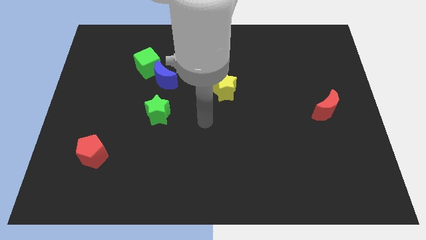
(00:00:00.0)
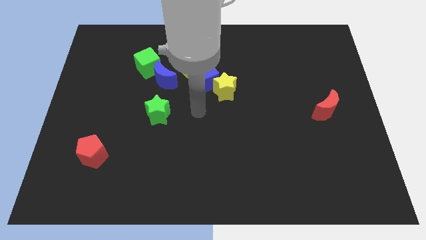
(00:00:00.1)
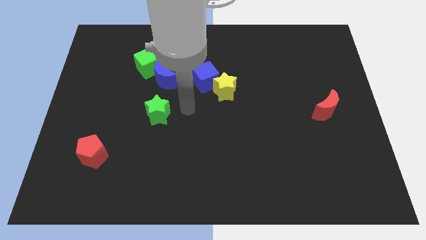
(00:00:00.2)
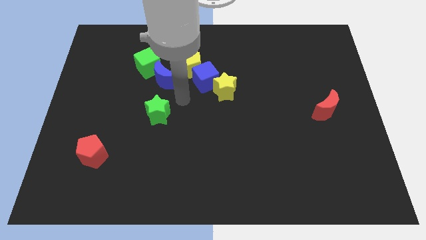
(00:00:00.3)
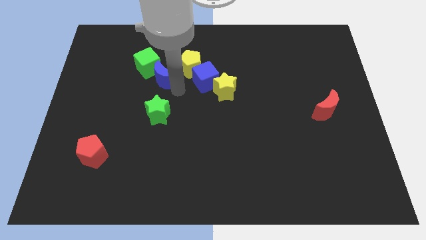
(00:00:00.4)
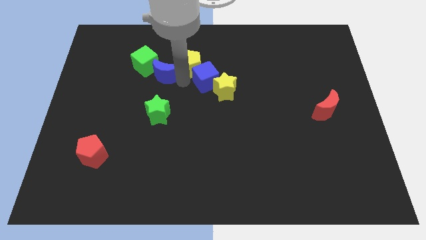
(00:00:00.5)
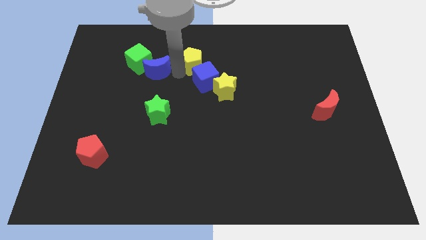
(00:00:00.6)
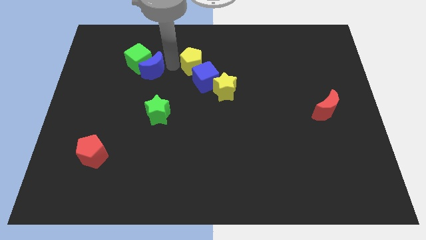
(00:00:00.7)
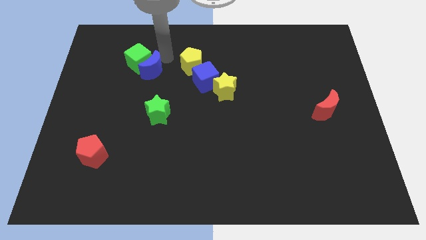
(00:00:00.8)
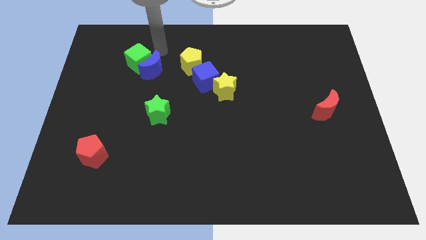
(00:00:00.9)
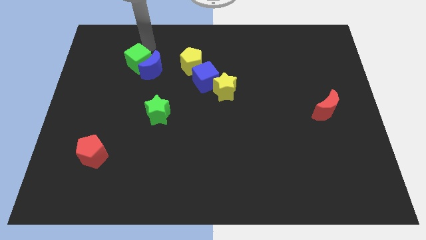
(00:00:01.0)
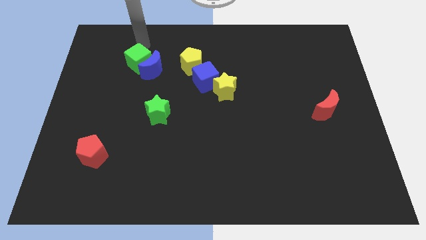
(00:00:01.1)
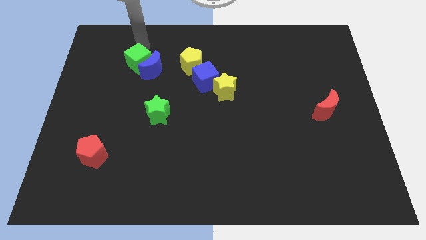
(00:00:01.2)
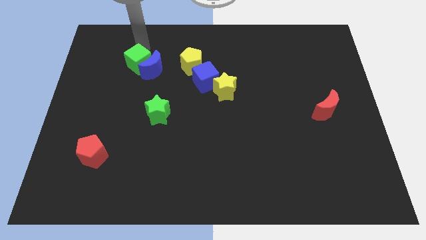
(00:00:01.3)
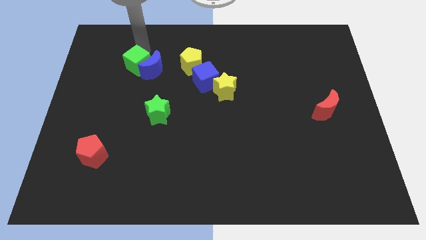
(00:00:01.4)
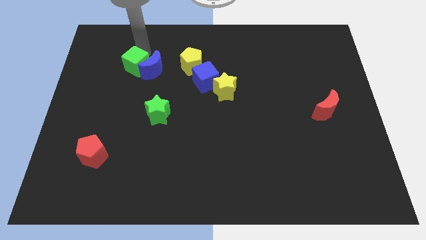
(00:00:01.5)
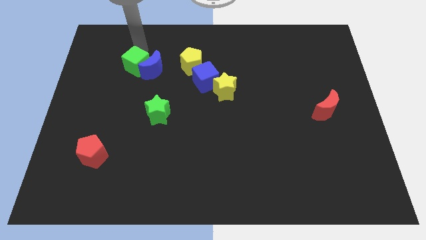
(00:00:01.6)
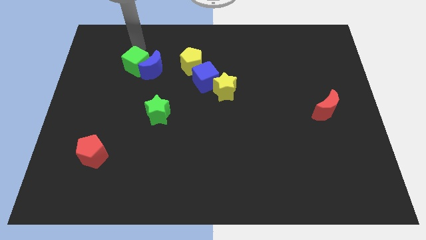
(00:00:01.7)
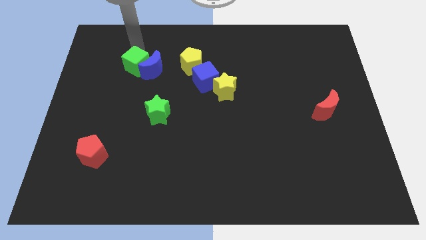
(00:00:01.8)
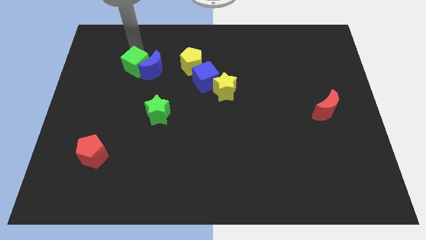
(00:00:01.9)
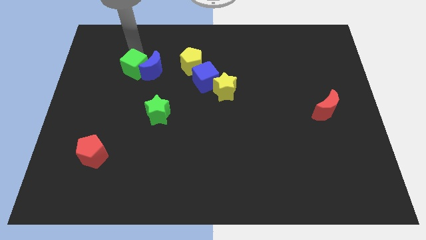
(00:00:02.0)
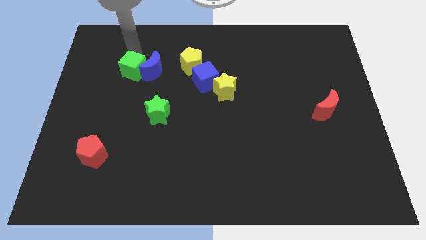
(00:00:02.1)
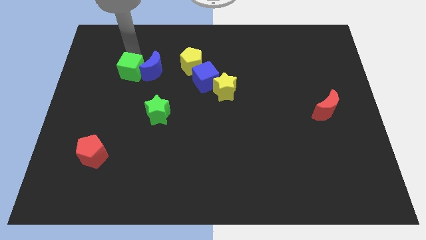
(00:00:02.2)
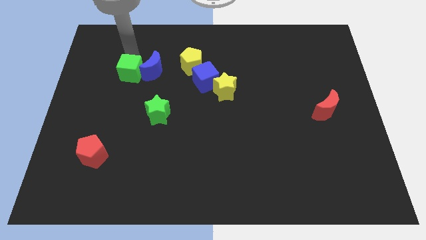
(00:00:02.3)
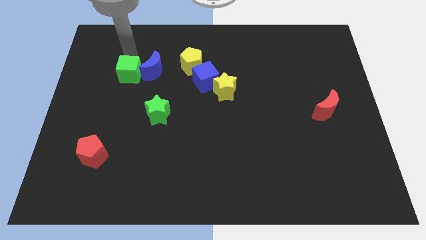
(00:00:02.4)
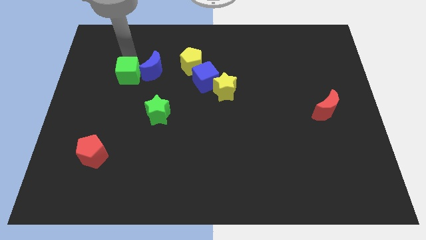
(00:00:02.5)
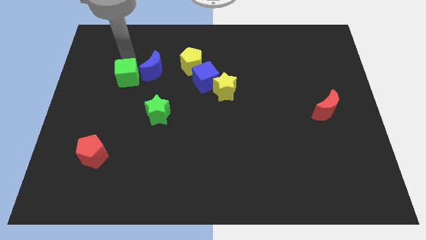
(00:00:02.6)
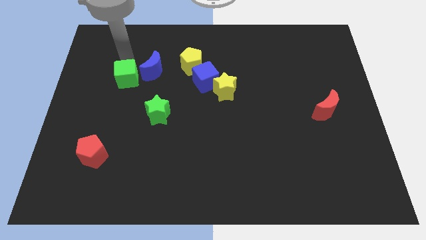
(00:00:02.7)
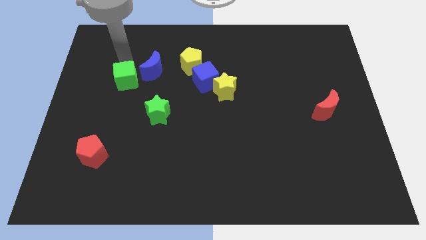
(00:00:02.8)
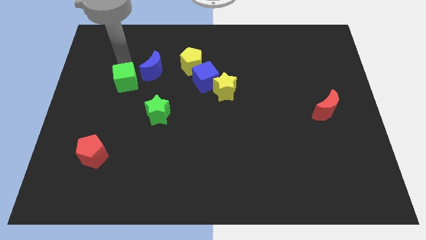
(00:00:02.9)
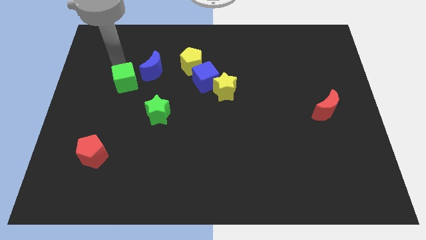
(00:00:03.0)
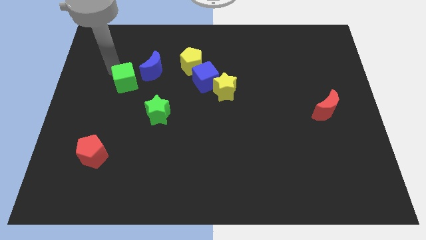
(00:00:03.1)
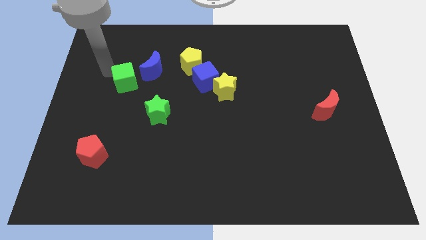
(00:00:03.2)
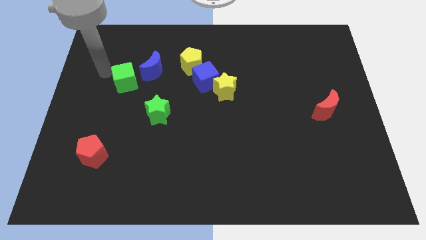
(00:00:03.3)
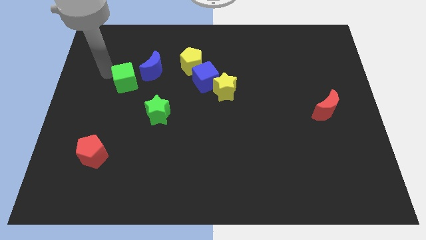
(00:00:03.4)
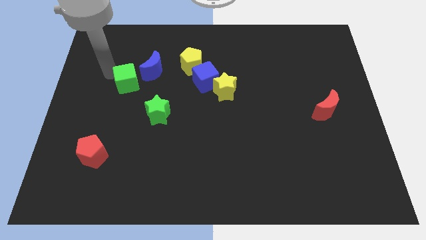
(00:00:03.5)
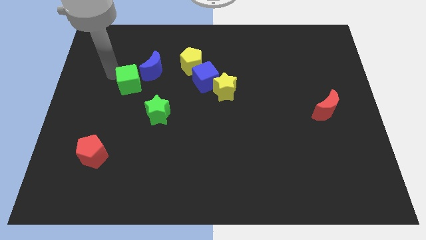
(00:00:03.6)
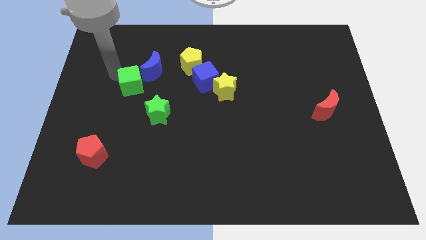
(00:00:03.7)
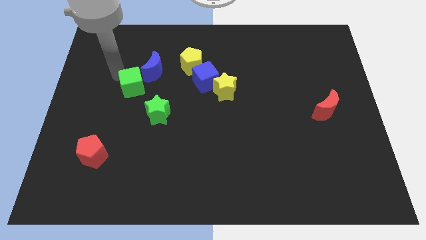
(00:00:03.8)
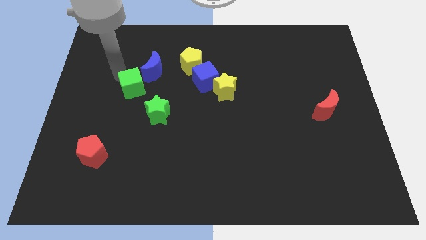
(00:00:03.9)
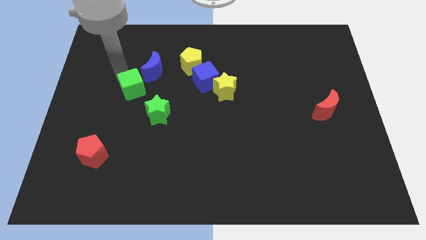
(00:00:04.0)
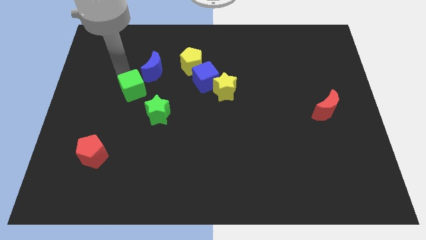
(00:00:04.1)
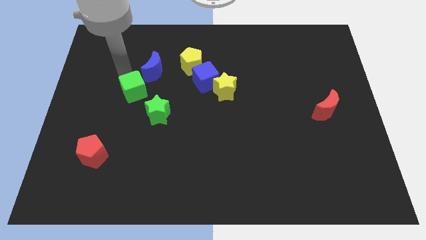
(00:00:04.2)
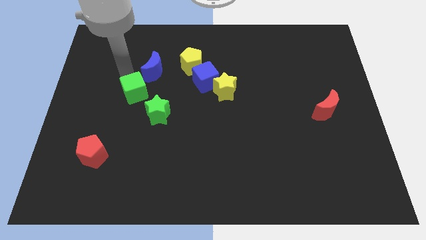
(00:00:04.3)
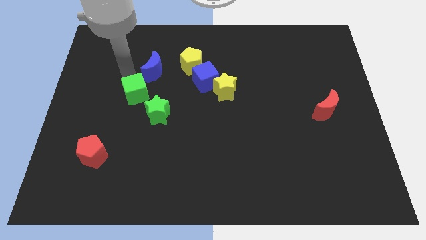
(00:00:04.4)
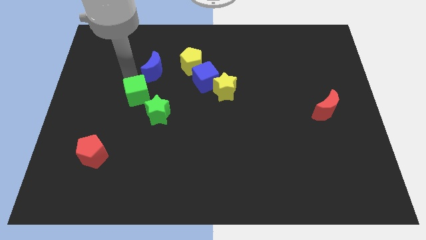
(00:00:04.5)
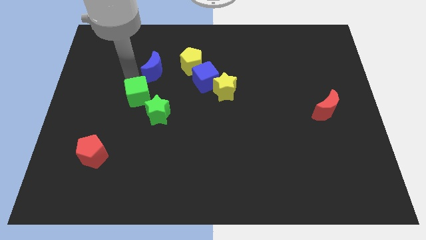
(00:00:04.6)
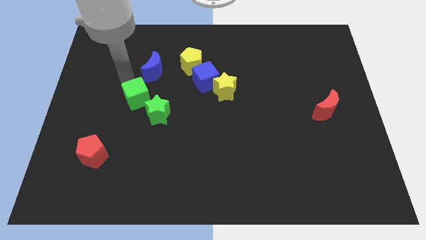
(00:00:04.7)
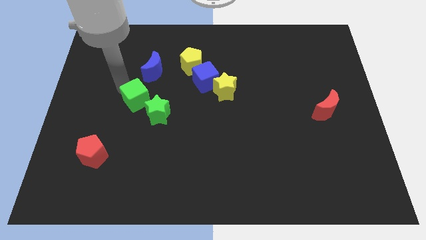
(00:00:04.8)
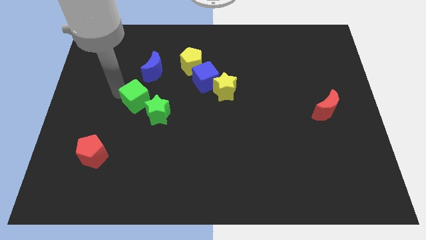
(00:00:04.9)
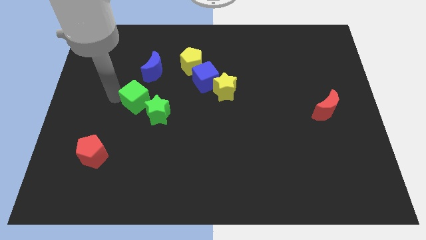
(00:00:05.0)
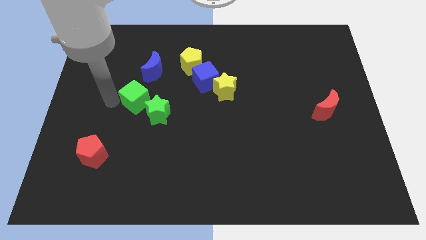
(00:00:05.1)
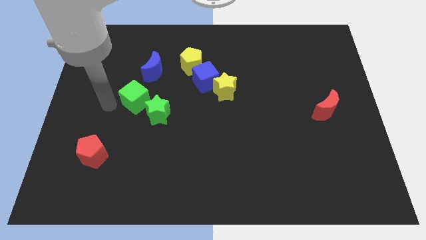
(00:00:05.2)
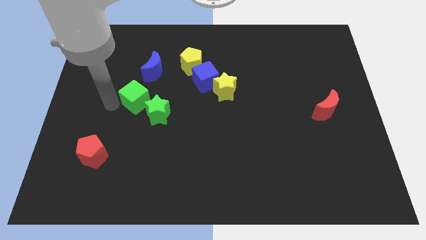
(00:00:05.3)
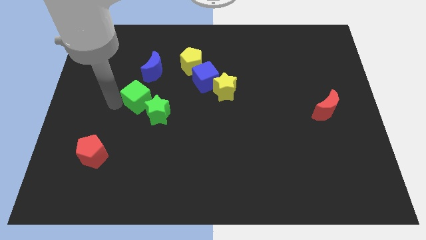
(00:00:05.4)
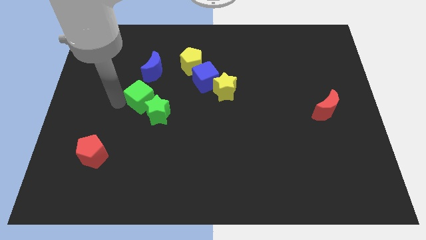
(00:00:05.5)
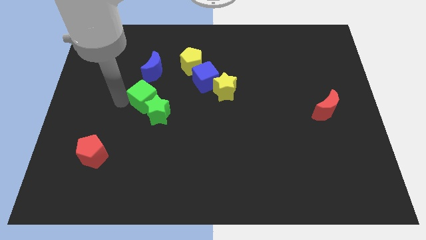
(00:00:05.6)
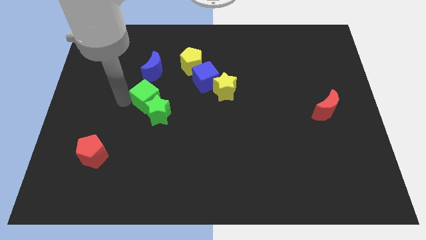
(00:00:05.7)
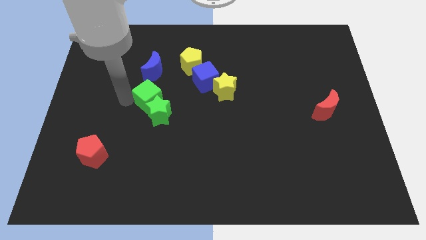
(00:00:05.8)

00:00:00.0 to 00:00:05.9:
slide the green cube downwards and right a little

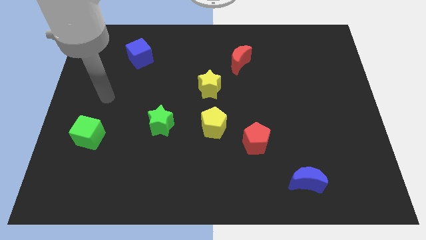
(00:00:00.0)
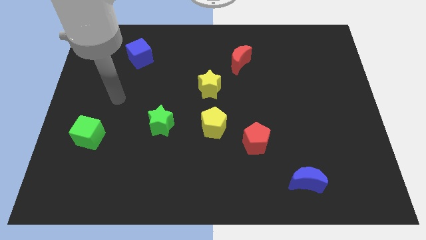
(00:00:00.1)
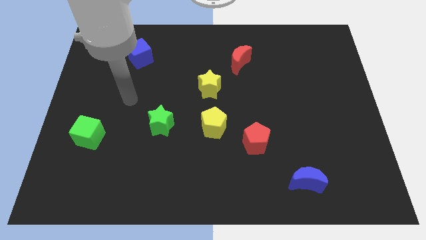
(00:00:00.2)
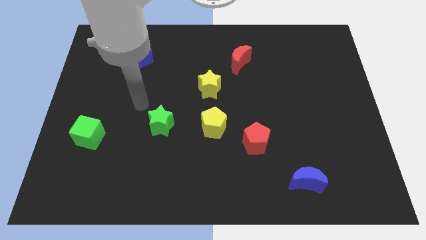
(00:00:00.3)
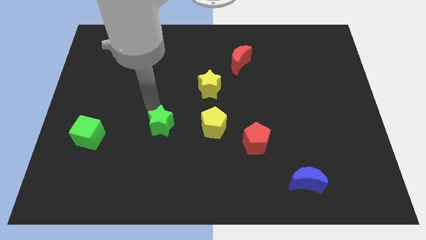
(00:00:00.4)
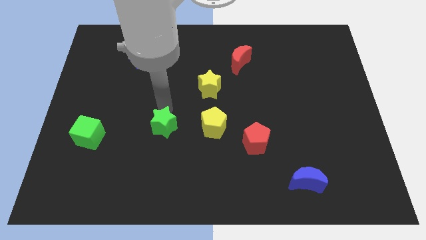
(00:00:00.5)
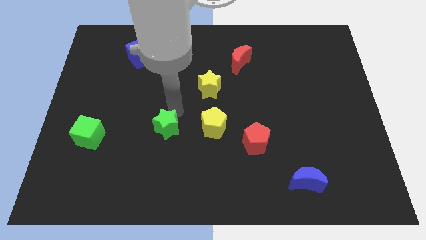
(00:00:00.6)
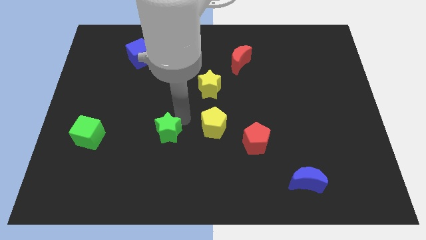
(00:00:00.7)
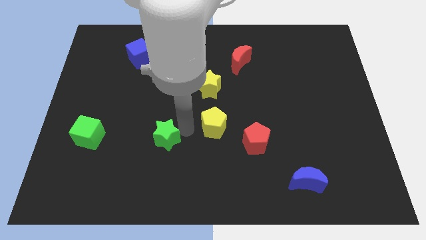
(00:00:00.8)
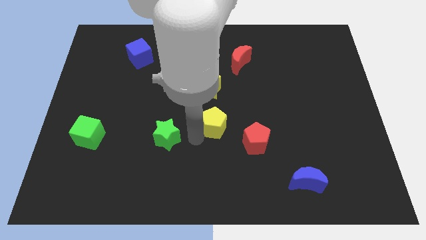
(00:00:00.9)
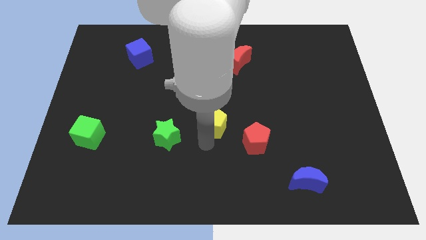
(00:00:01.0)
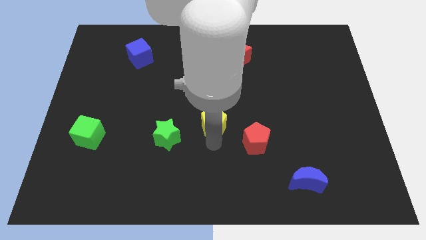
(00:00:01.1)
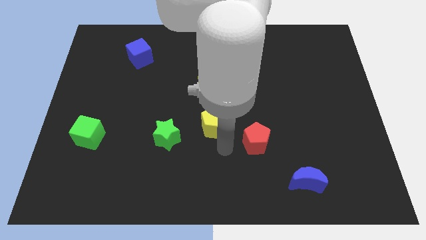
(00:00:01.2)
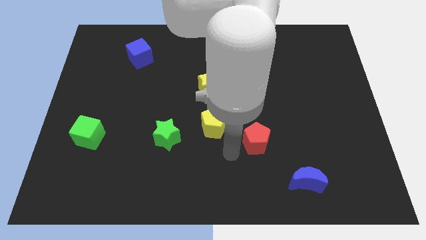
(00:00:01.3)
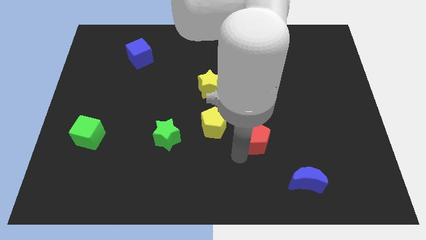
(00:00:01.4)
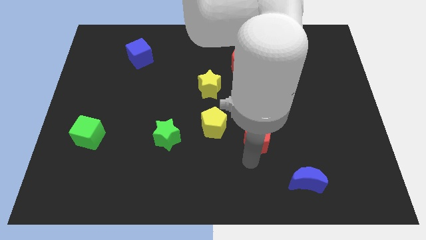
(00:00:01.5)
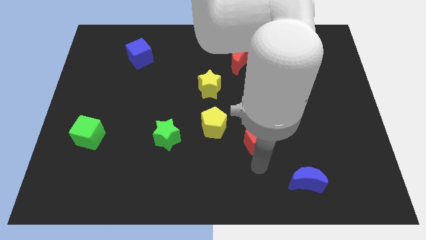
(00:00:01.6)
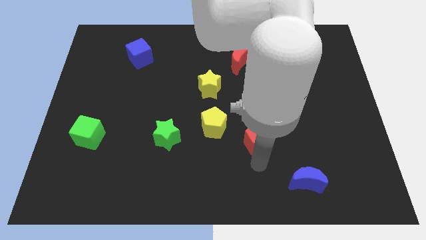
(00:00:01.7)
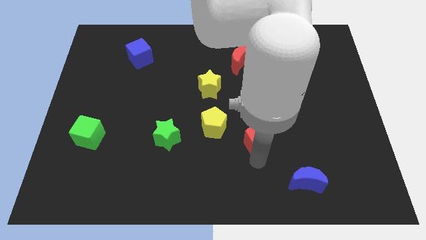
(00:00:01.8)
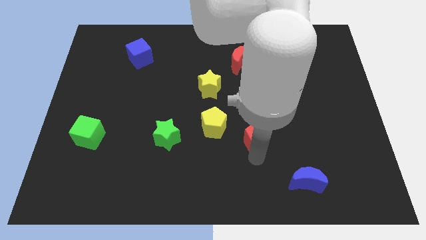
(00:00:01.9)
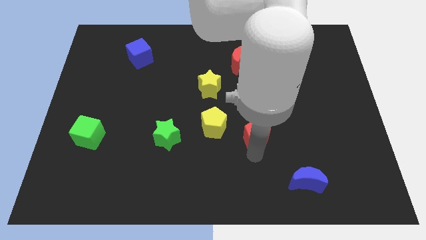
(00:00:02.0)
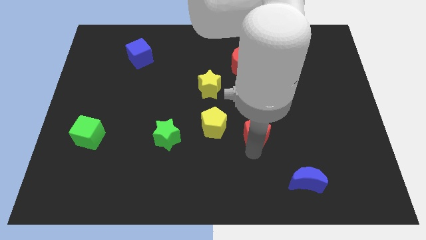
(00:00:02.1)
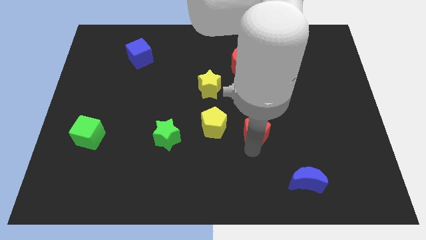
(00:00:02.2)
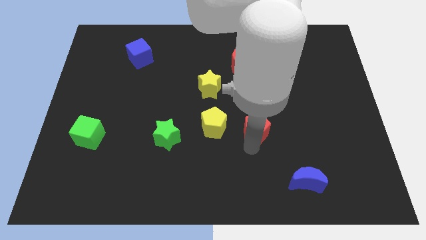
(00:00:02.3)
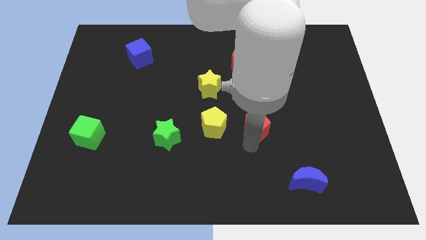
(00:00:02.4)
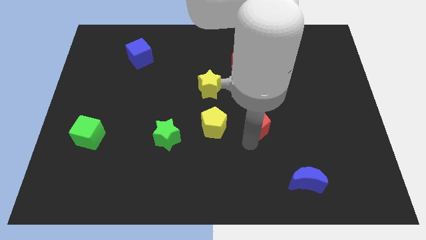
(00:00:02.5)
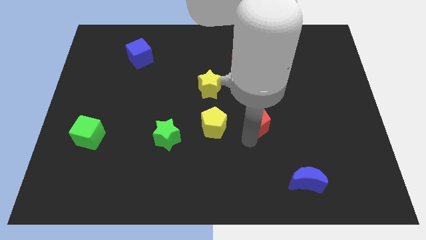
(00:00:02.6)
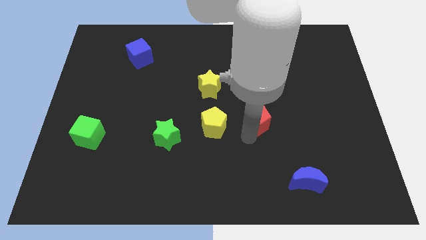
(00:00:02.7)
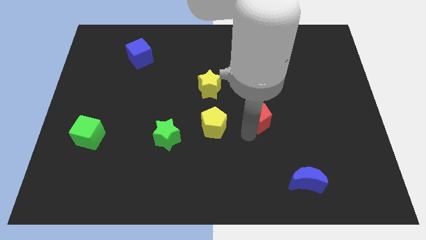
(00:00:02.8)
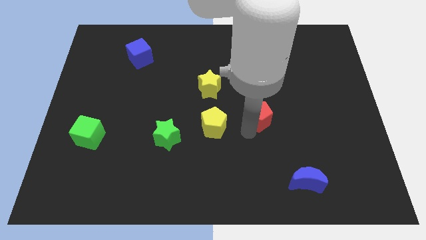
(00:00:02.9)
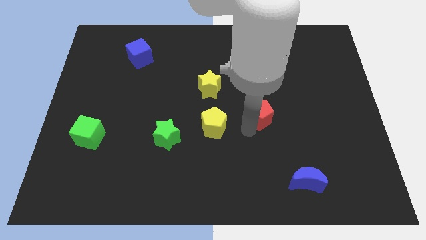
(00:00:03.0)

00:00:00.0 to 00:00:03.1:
push the red pentagon upwards a bit
